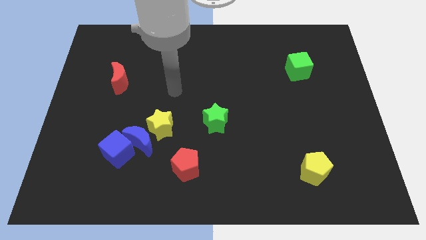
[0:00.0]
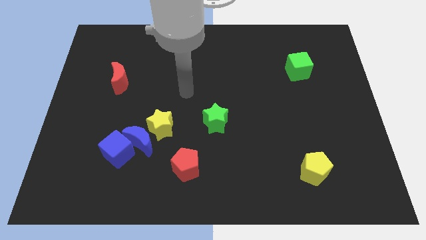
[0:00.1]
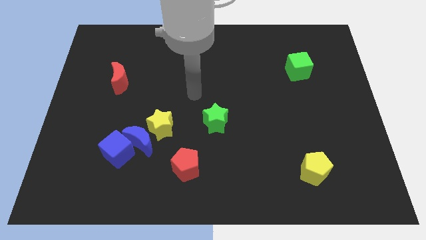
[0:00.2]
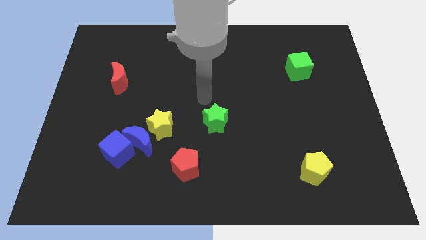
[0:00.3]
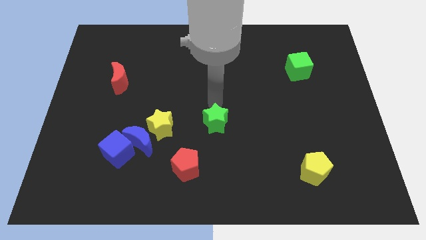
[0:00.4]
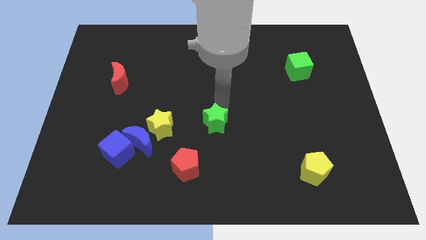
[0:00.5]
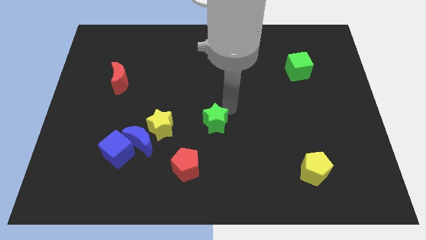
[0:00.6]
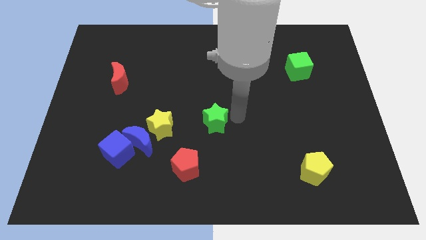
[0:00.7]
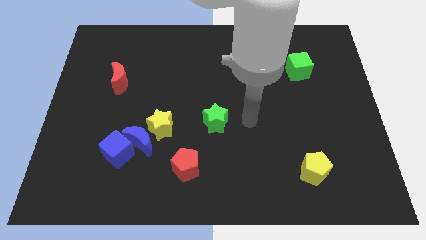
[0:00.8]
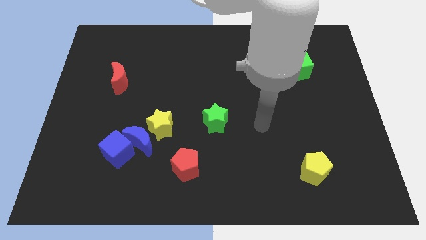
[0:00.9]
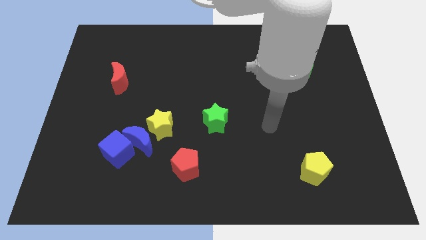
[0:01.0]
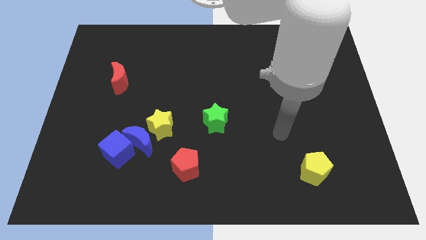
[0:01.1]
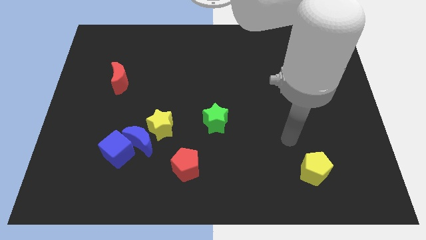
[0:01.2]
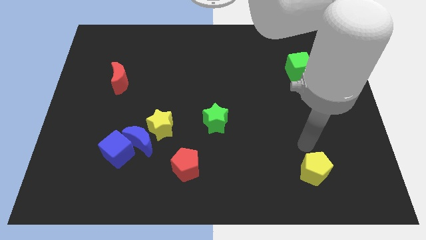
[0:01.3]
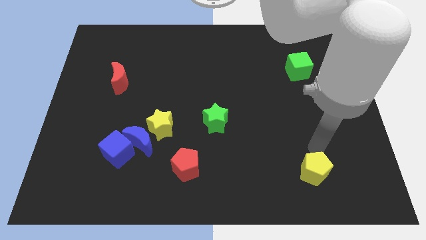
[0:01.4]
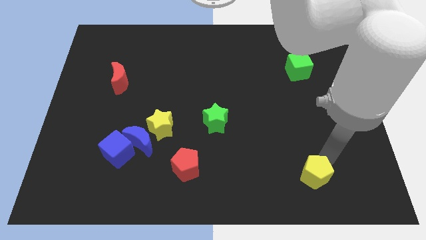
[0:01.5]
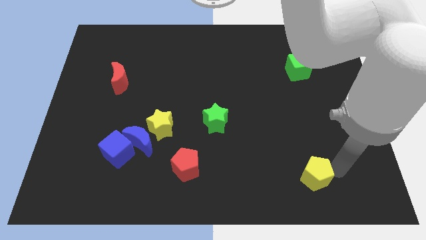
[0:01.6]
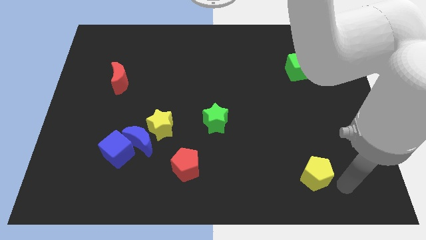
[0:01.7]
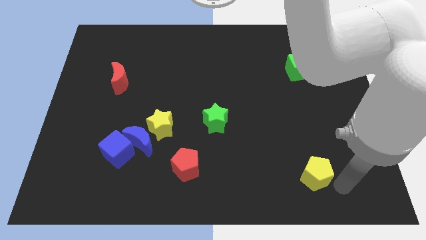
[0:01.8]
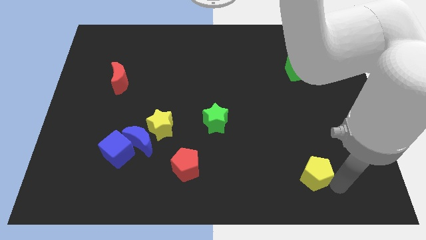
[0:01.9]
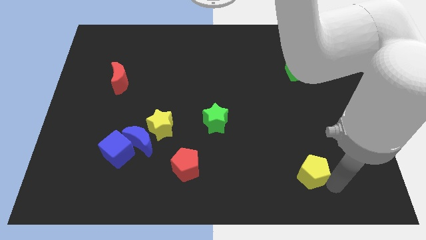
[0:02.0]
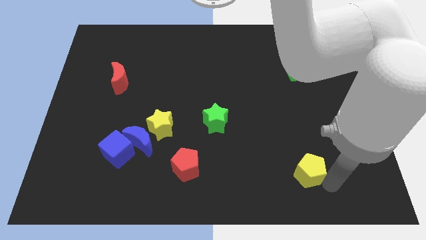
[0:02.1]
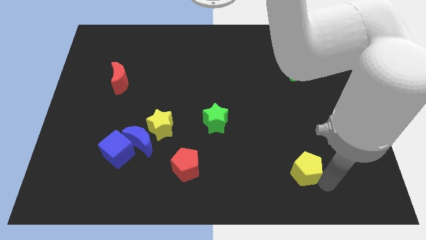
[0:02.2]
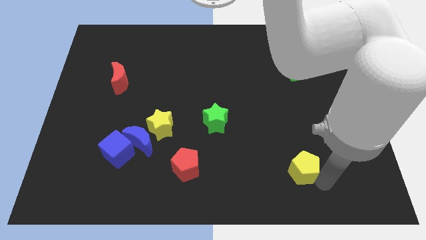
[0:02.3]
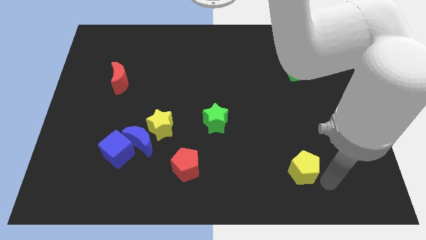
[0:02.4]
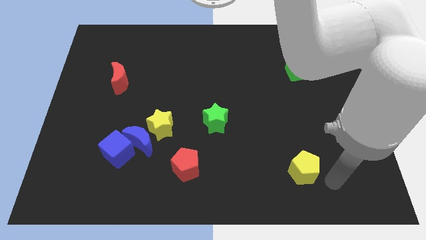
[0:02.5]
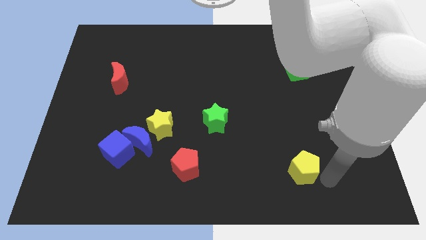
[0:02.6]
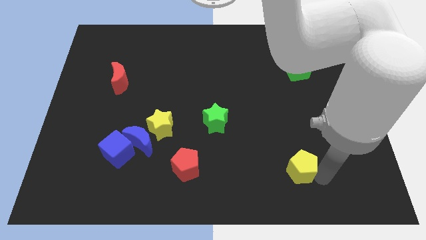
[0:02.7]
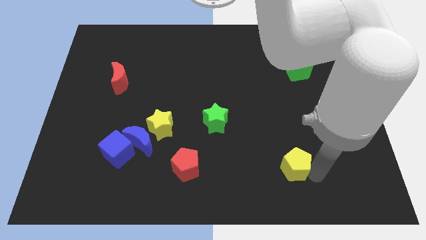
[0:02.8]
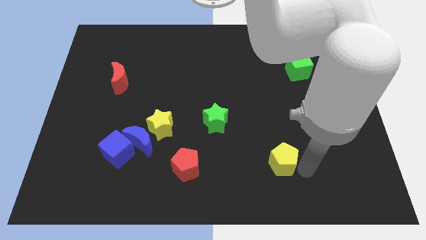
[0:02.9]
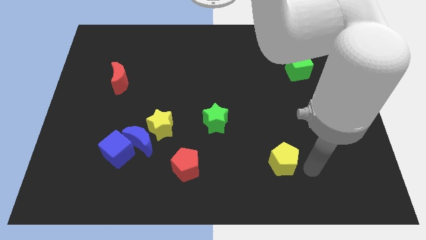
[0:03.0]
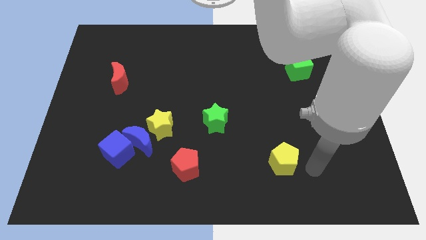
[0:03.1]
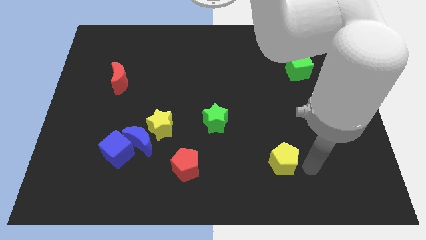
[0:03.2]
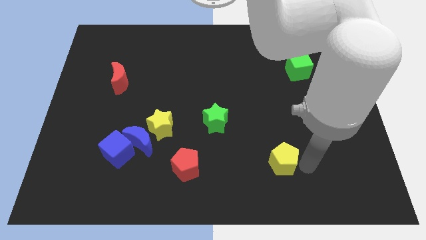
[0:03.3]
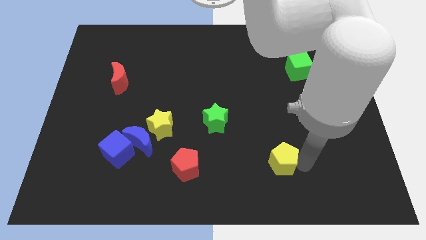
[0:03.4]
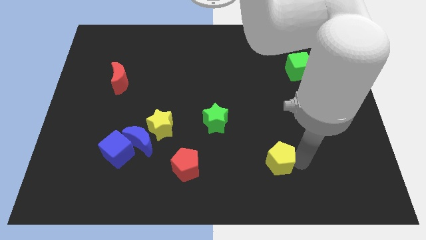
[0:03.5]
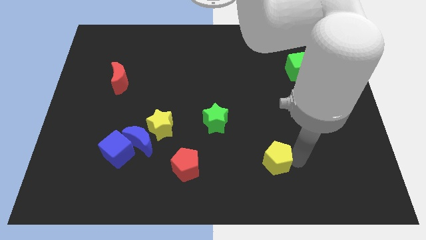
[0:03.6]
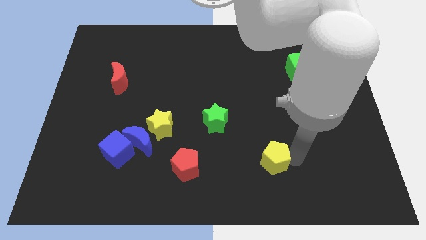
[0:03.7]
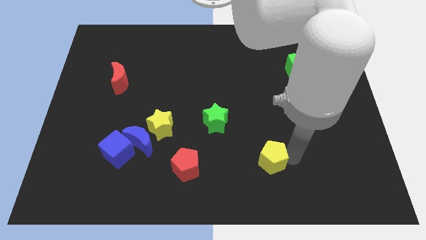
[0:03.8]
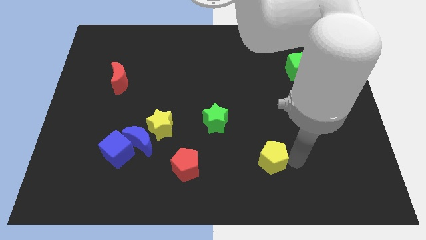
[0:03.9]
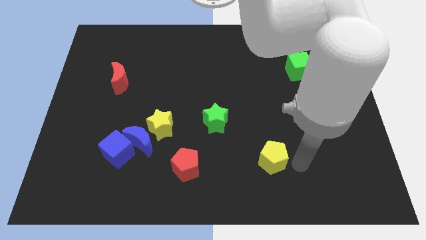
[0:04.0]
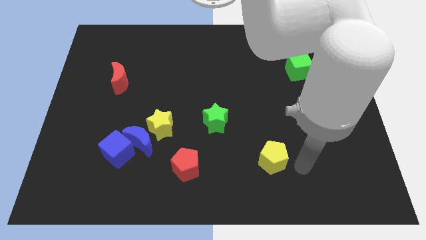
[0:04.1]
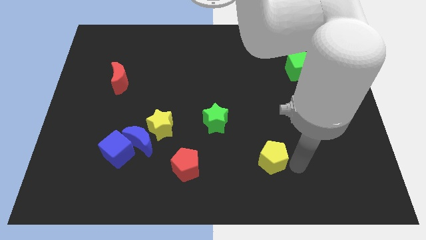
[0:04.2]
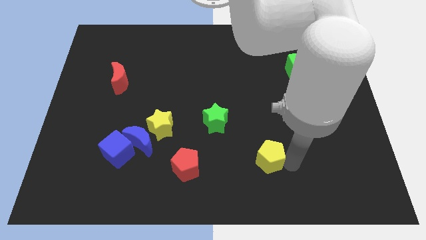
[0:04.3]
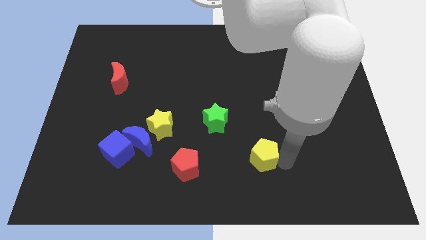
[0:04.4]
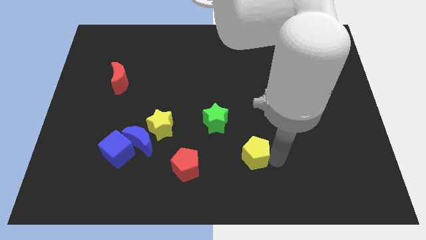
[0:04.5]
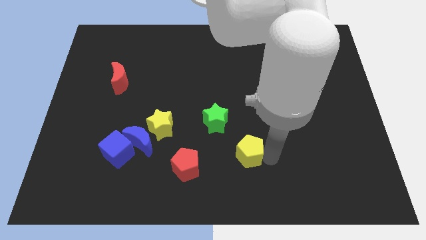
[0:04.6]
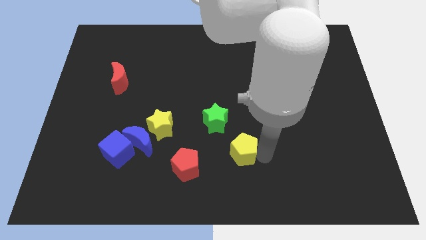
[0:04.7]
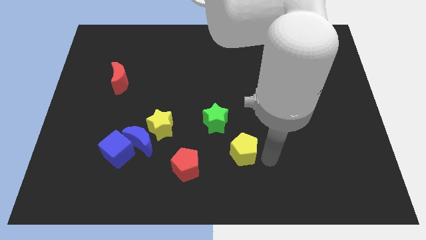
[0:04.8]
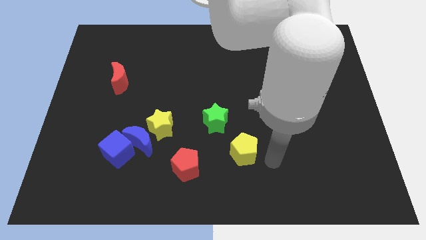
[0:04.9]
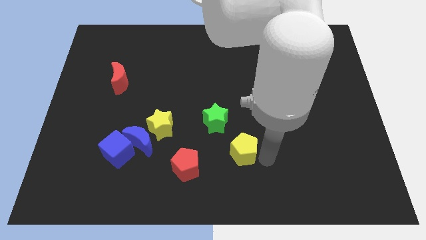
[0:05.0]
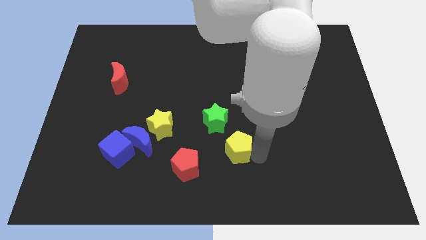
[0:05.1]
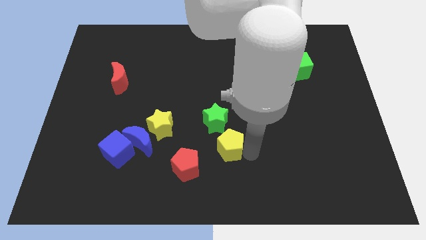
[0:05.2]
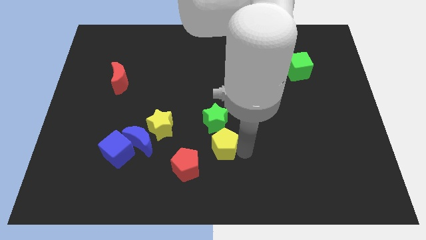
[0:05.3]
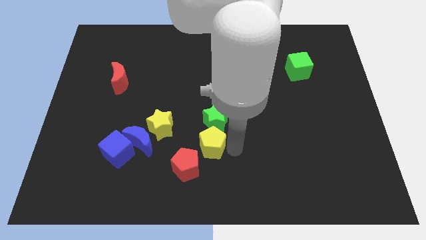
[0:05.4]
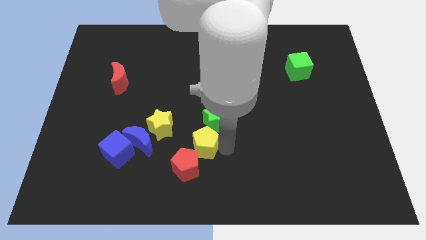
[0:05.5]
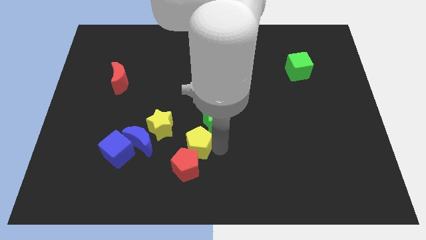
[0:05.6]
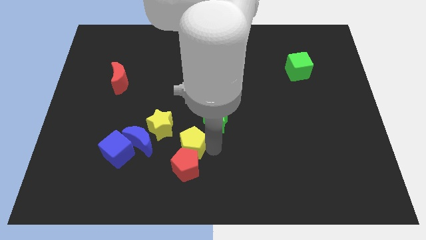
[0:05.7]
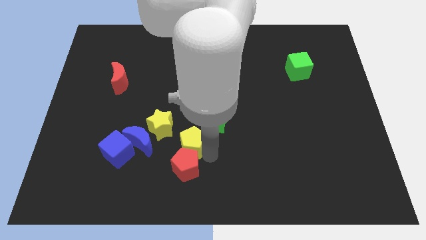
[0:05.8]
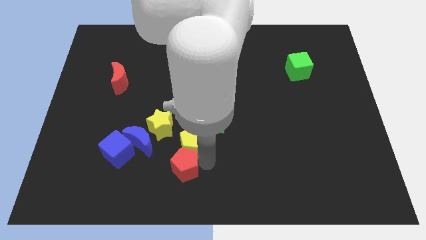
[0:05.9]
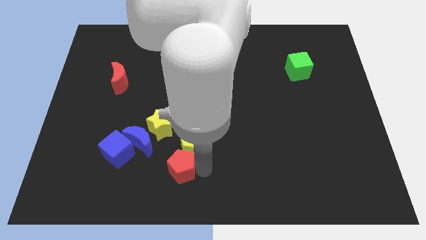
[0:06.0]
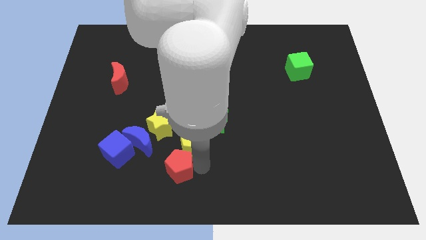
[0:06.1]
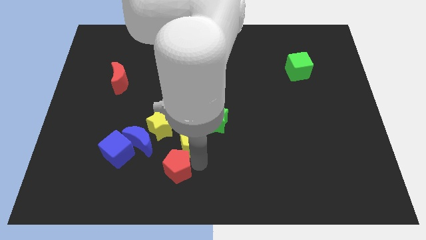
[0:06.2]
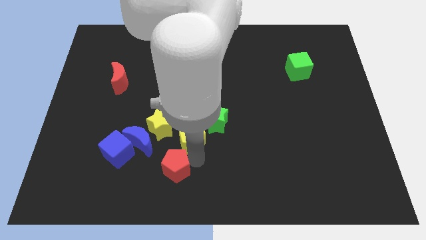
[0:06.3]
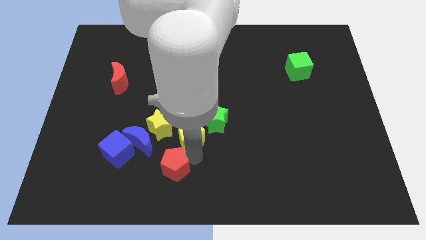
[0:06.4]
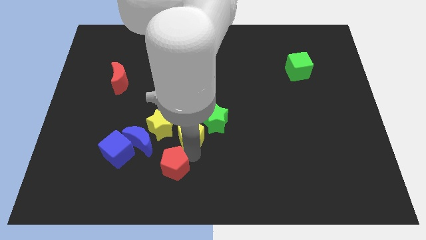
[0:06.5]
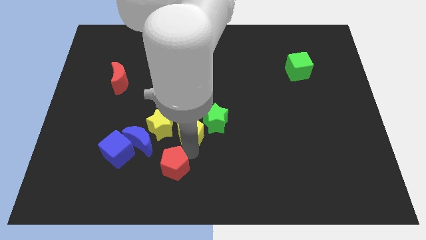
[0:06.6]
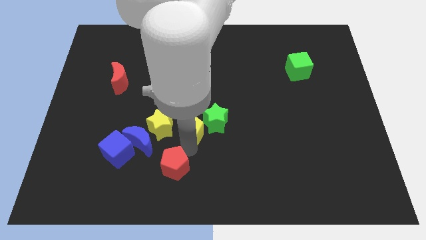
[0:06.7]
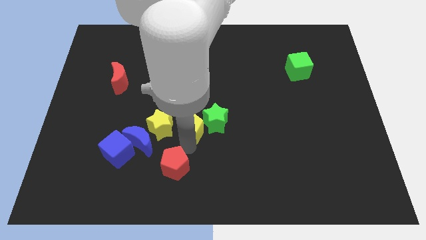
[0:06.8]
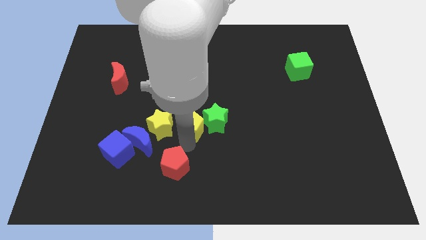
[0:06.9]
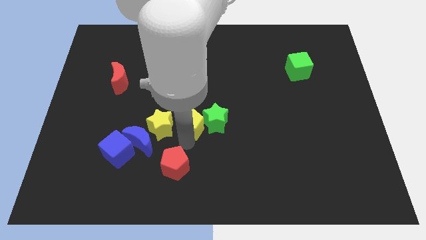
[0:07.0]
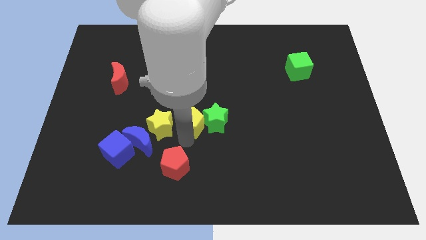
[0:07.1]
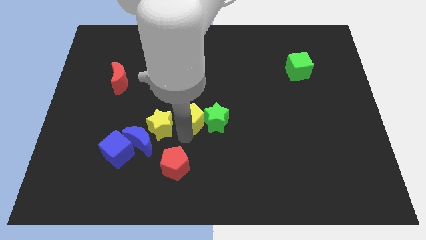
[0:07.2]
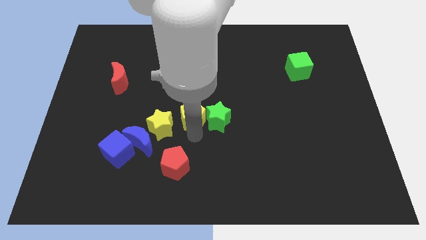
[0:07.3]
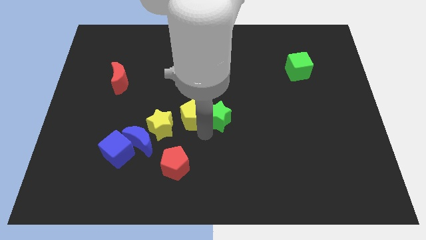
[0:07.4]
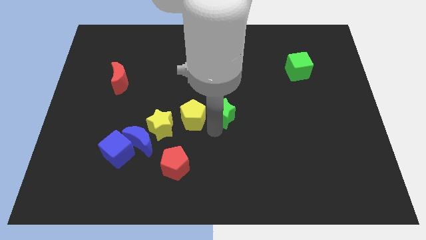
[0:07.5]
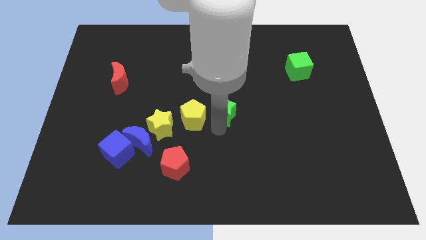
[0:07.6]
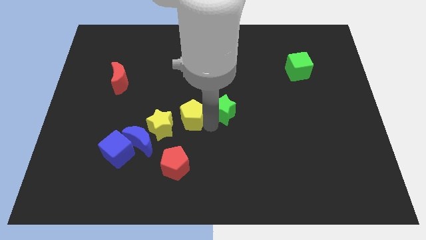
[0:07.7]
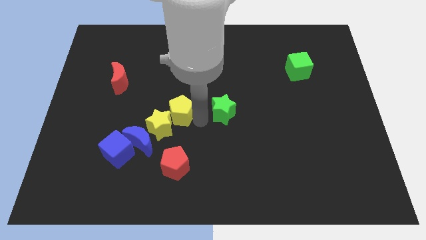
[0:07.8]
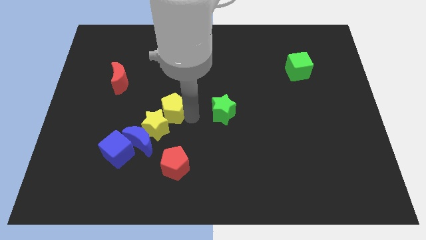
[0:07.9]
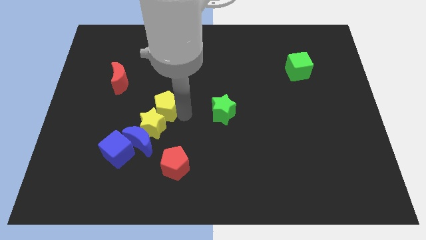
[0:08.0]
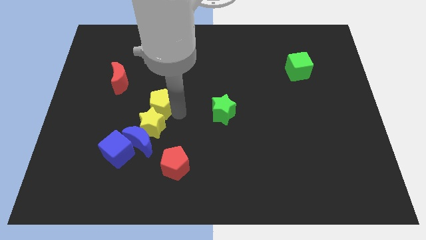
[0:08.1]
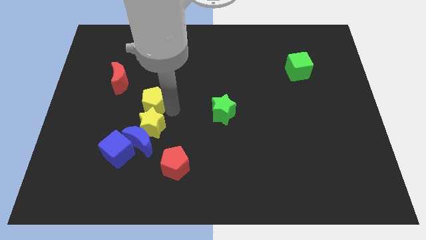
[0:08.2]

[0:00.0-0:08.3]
push the yellow pentagon to the bottom right side of the red moon
